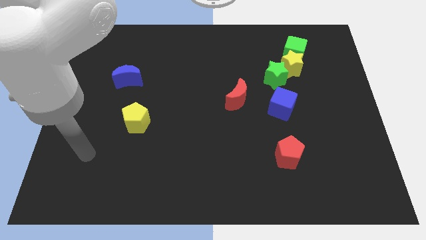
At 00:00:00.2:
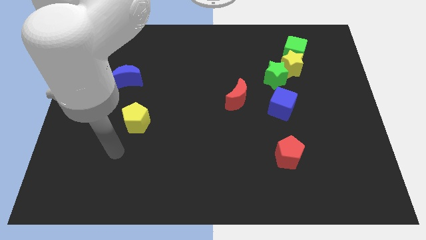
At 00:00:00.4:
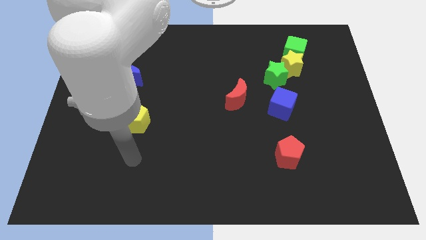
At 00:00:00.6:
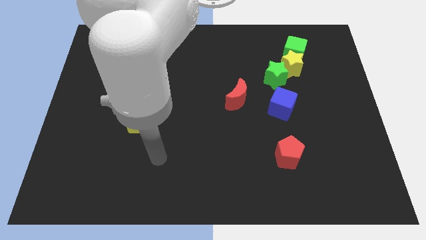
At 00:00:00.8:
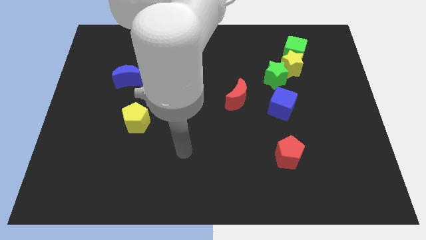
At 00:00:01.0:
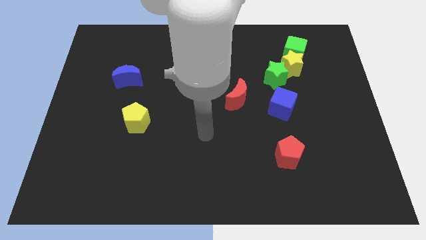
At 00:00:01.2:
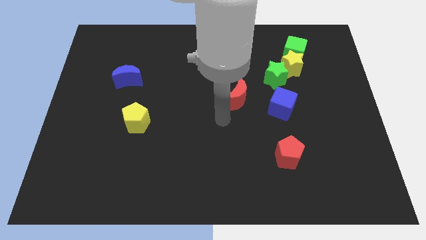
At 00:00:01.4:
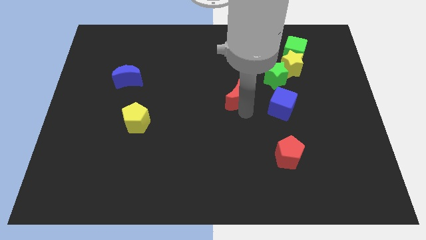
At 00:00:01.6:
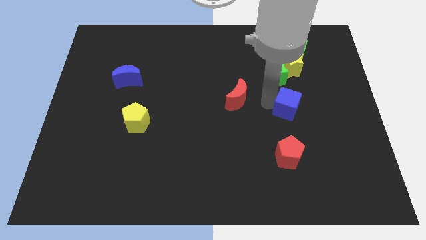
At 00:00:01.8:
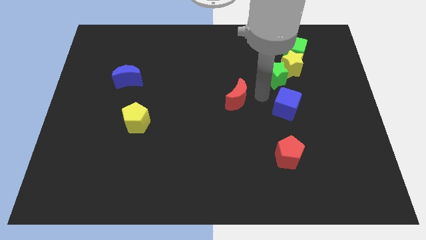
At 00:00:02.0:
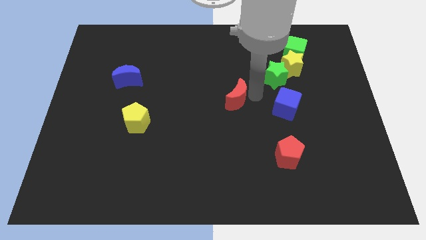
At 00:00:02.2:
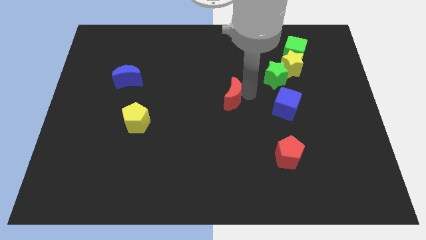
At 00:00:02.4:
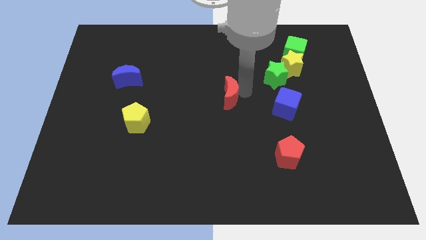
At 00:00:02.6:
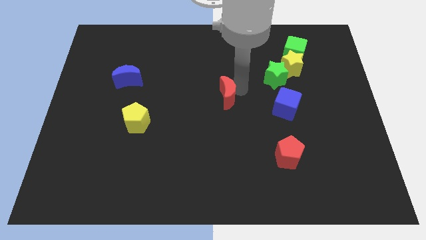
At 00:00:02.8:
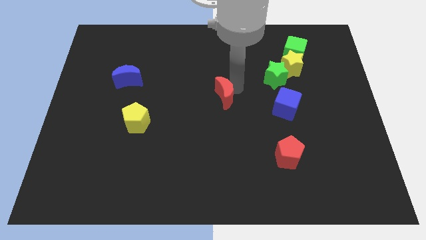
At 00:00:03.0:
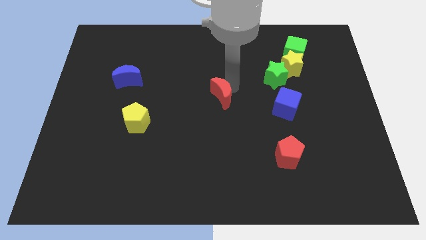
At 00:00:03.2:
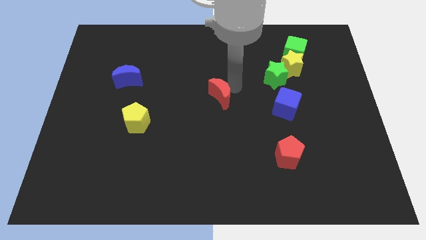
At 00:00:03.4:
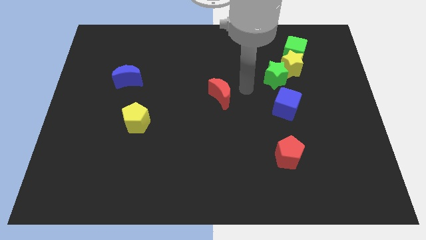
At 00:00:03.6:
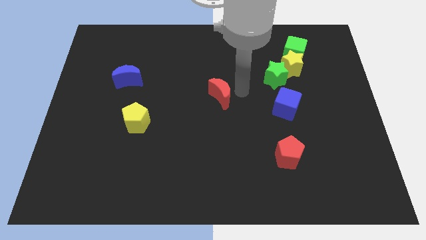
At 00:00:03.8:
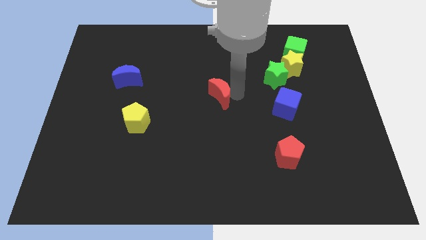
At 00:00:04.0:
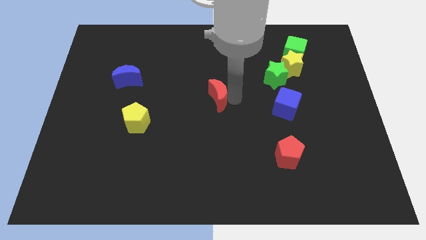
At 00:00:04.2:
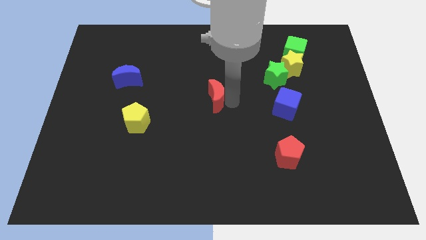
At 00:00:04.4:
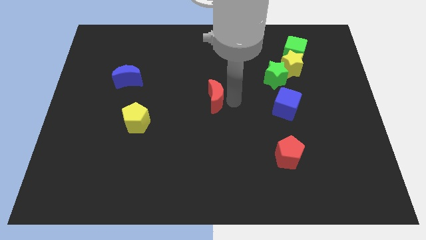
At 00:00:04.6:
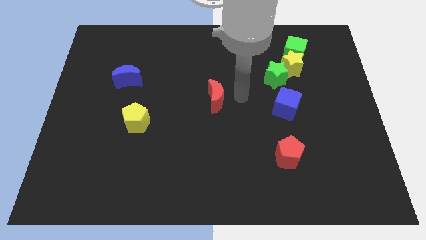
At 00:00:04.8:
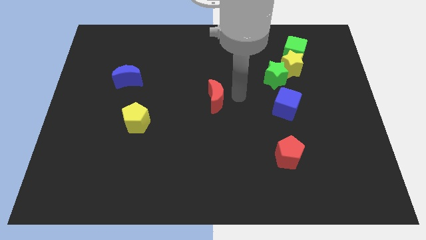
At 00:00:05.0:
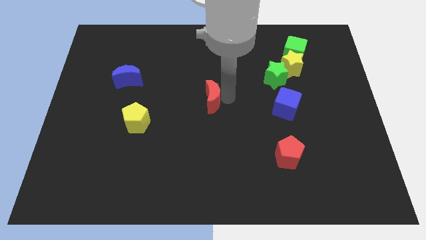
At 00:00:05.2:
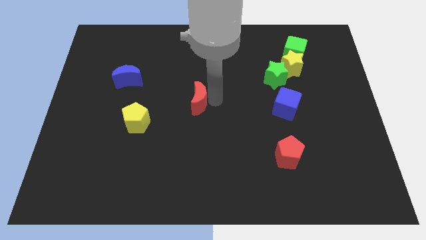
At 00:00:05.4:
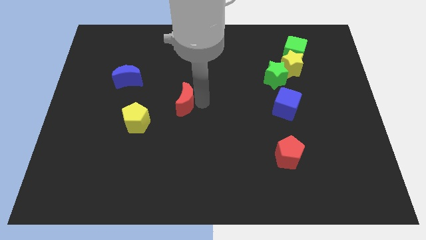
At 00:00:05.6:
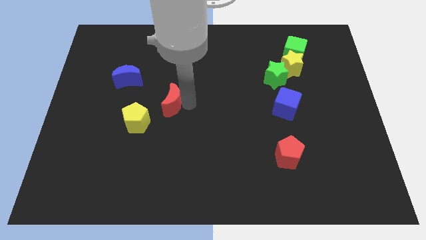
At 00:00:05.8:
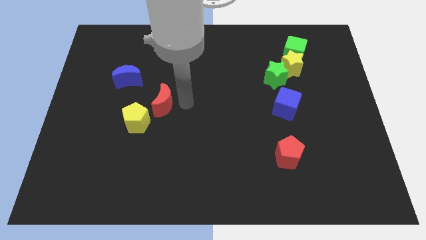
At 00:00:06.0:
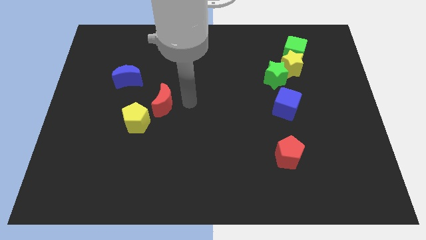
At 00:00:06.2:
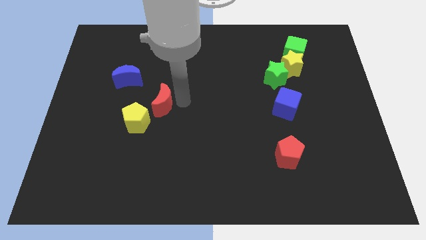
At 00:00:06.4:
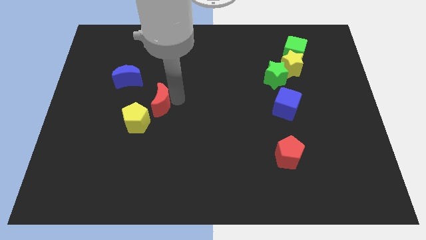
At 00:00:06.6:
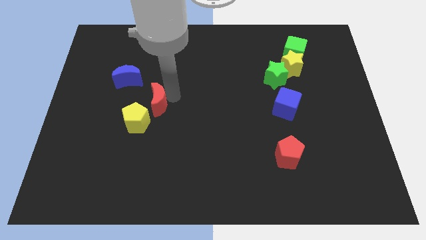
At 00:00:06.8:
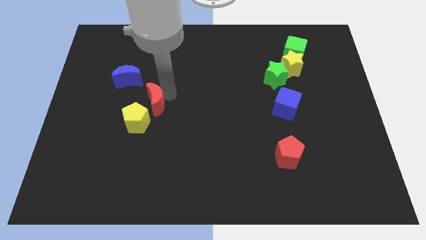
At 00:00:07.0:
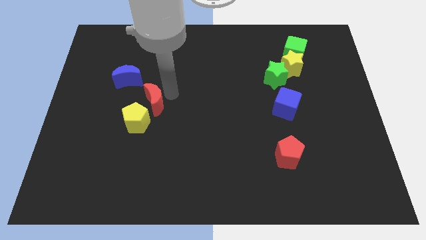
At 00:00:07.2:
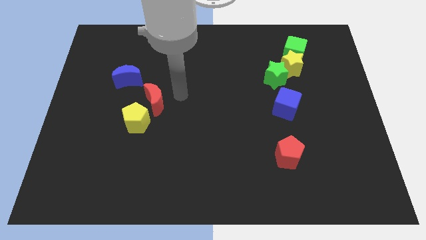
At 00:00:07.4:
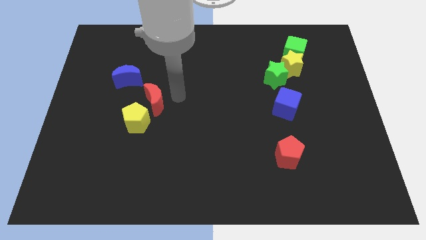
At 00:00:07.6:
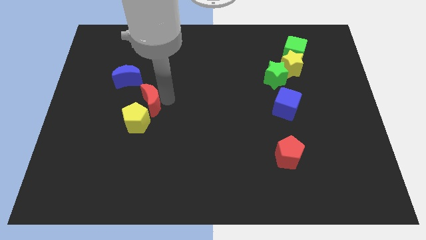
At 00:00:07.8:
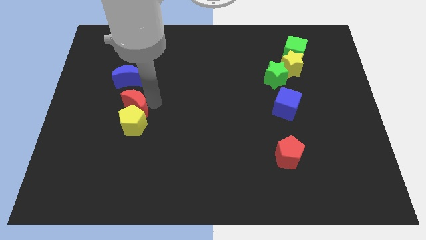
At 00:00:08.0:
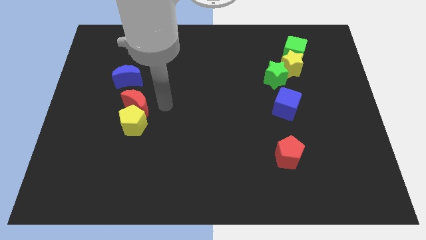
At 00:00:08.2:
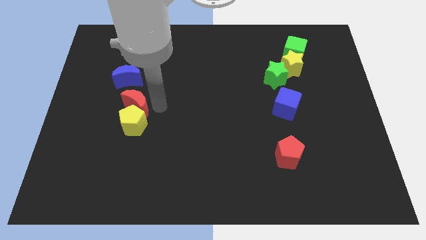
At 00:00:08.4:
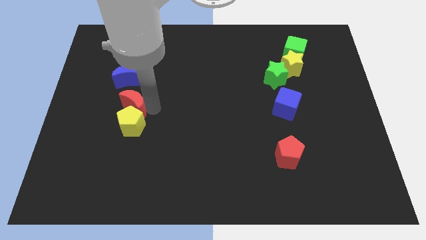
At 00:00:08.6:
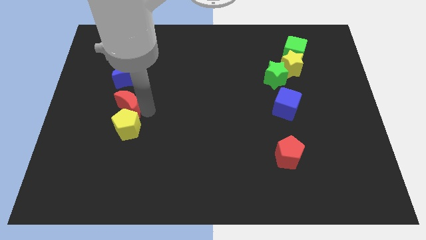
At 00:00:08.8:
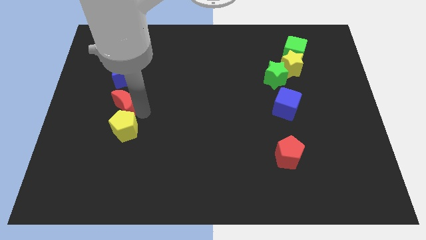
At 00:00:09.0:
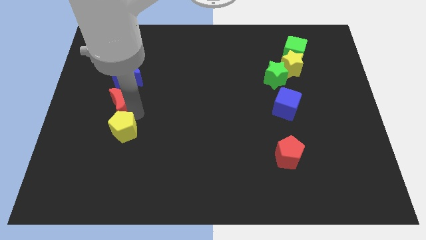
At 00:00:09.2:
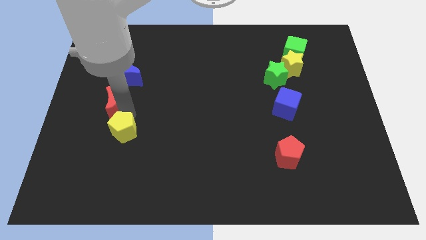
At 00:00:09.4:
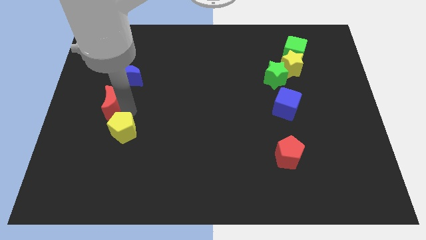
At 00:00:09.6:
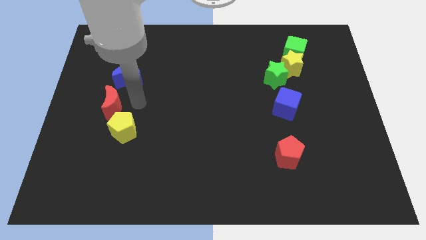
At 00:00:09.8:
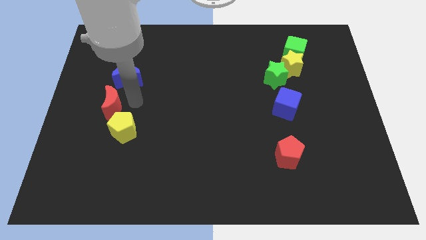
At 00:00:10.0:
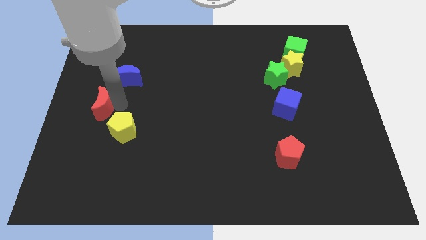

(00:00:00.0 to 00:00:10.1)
move the red moon to the left side of the board

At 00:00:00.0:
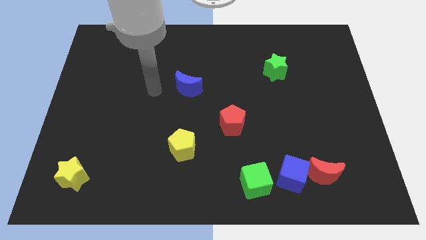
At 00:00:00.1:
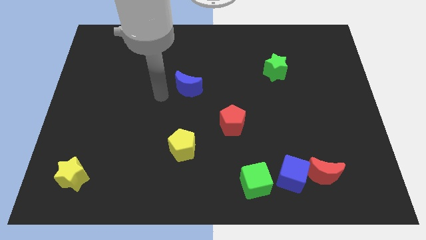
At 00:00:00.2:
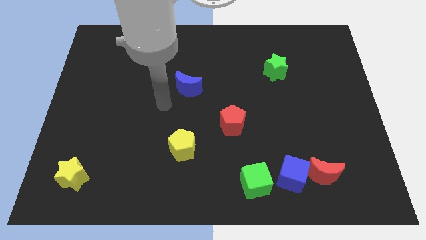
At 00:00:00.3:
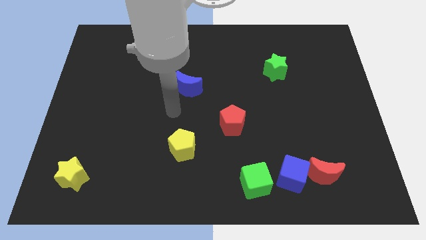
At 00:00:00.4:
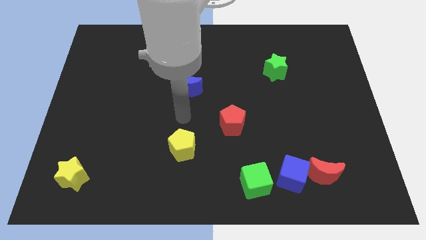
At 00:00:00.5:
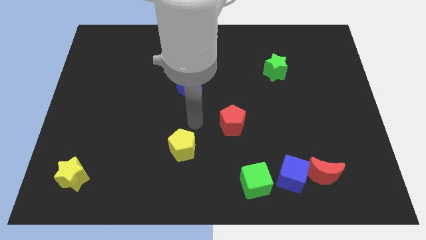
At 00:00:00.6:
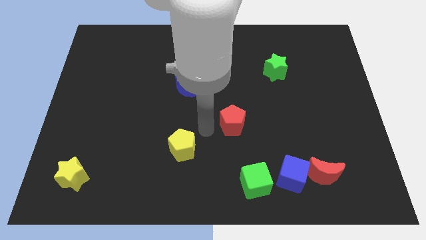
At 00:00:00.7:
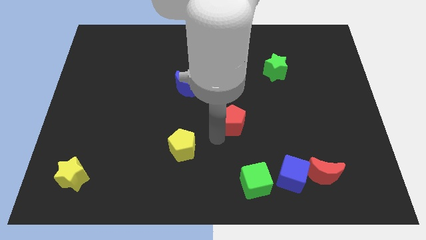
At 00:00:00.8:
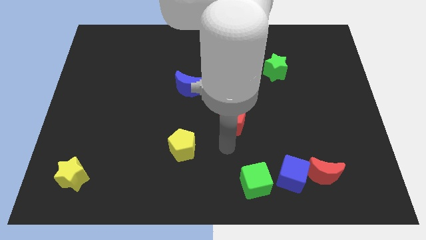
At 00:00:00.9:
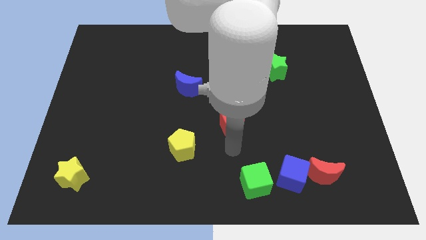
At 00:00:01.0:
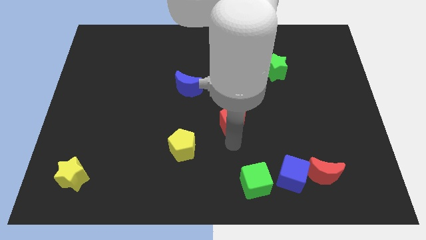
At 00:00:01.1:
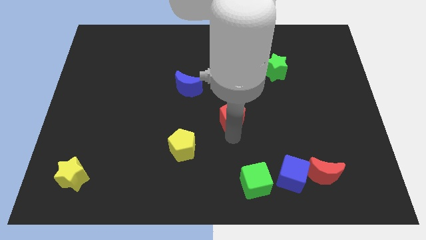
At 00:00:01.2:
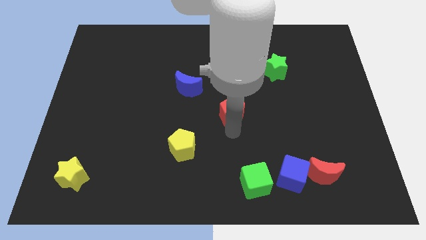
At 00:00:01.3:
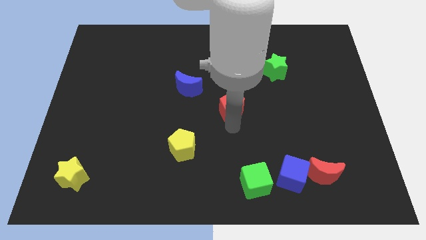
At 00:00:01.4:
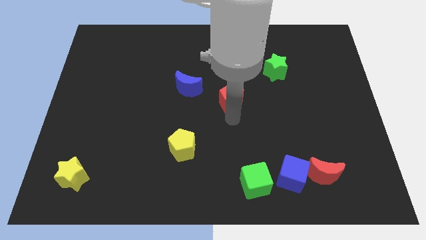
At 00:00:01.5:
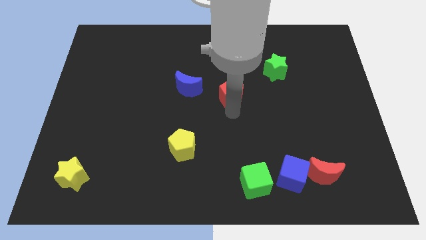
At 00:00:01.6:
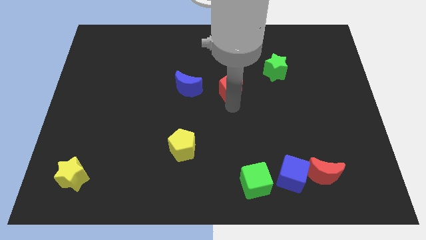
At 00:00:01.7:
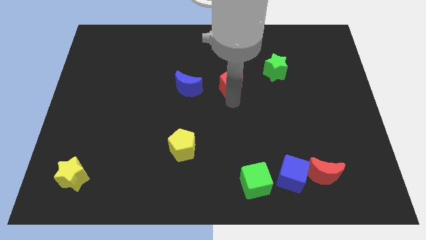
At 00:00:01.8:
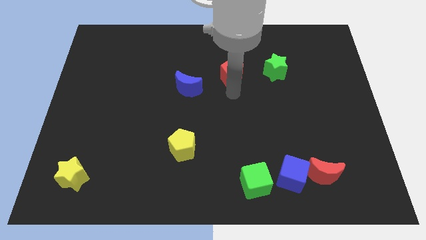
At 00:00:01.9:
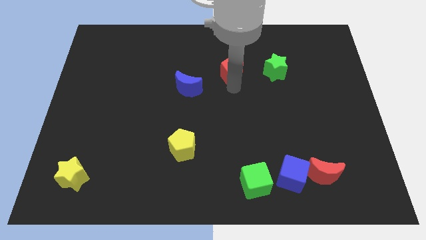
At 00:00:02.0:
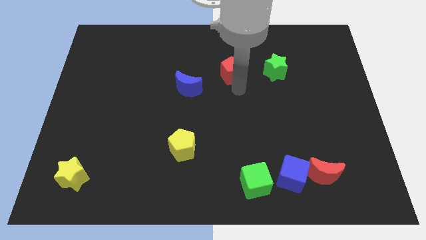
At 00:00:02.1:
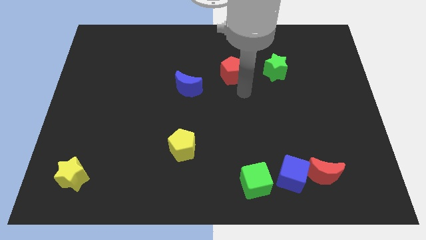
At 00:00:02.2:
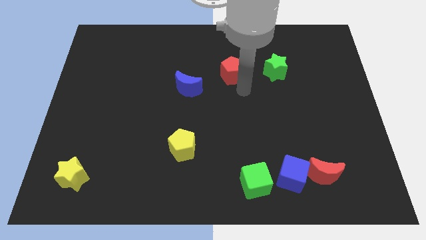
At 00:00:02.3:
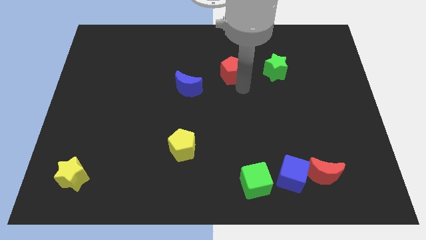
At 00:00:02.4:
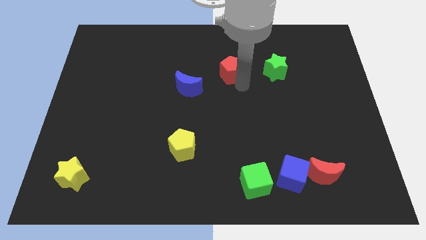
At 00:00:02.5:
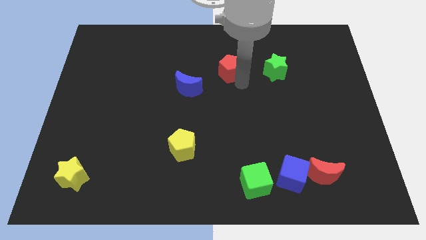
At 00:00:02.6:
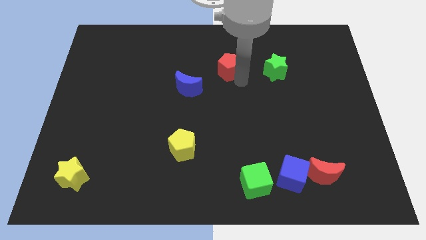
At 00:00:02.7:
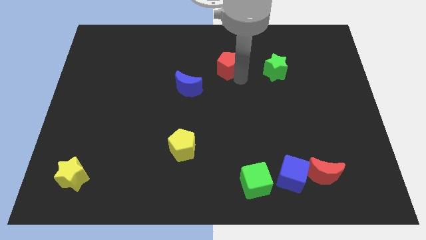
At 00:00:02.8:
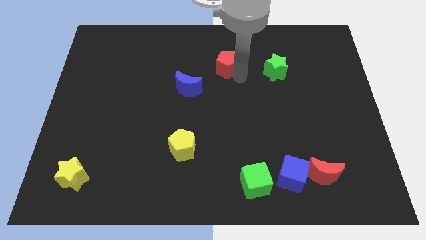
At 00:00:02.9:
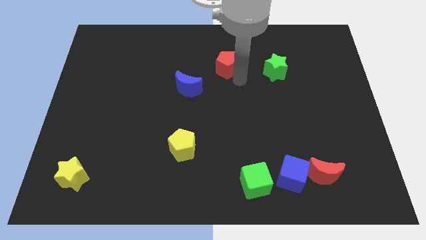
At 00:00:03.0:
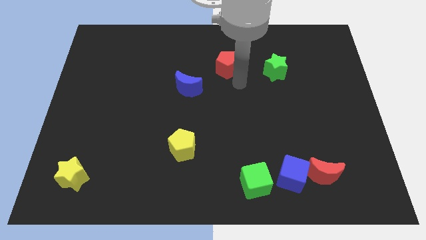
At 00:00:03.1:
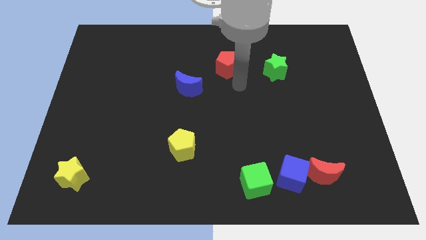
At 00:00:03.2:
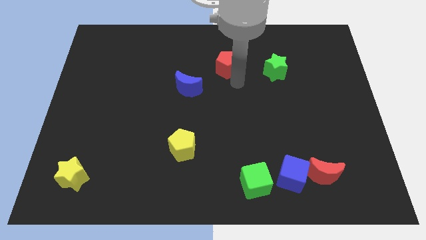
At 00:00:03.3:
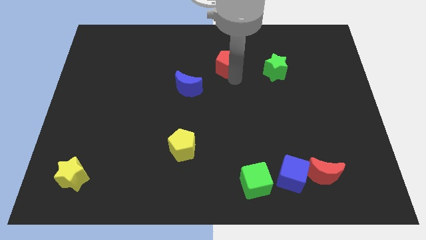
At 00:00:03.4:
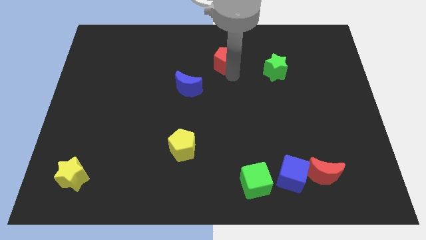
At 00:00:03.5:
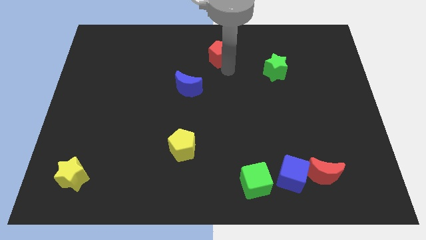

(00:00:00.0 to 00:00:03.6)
put the red pentagon to the top
